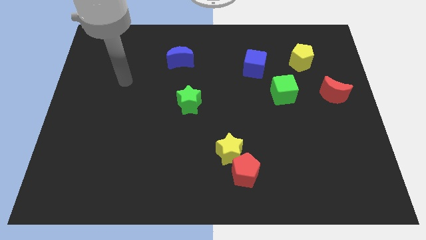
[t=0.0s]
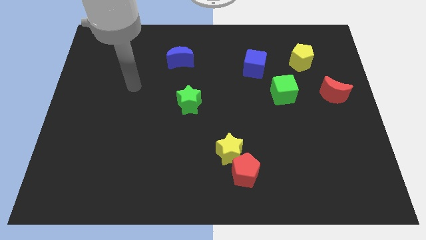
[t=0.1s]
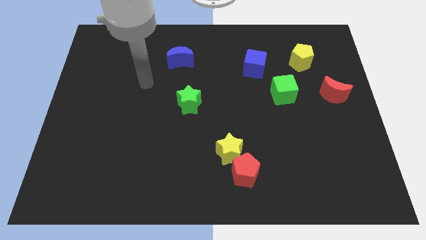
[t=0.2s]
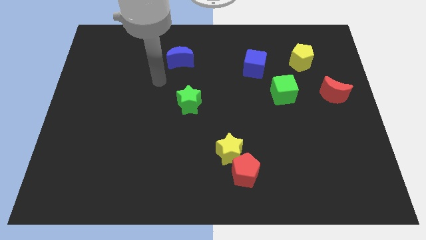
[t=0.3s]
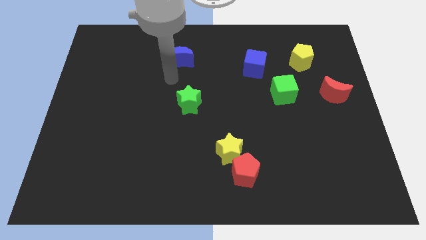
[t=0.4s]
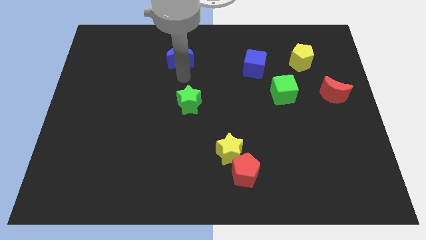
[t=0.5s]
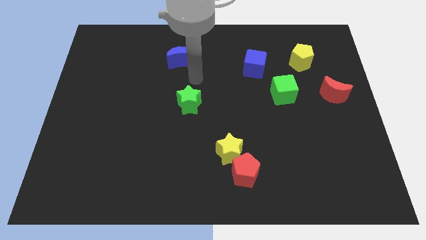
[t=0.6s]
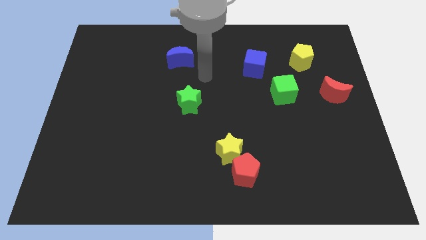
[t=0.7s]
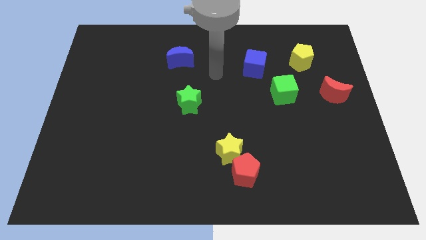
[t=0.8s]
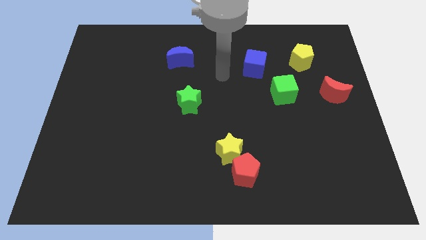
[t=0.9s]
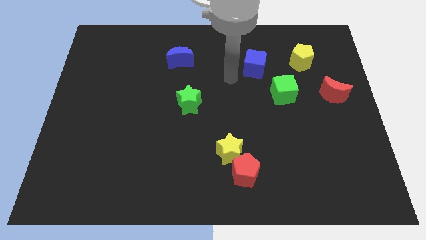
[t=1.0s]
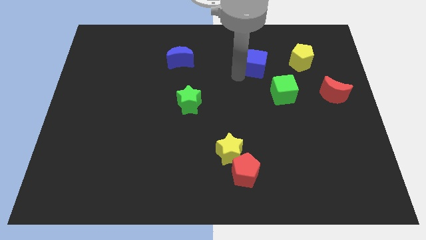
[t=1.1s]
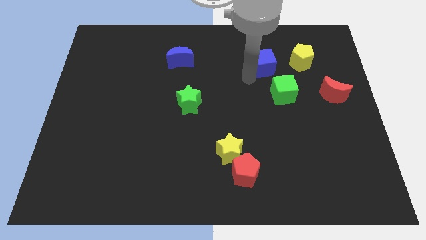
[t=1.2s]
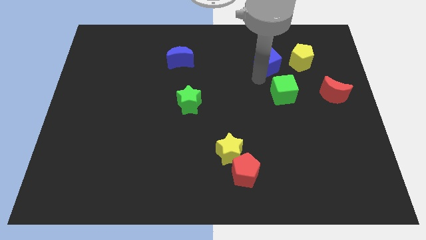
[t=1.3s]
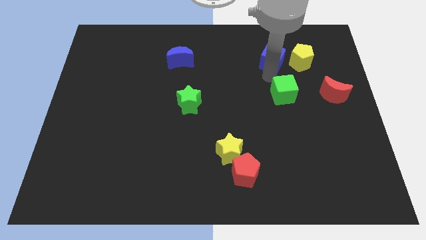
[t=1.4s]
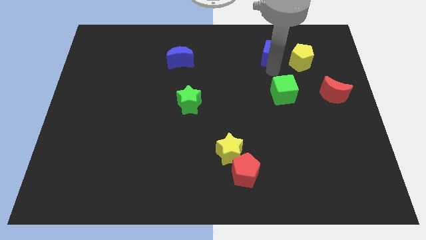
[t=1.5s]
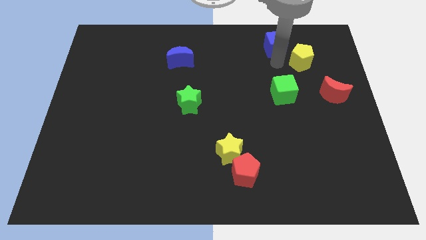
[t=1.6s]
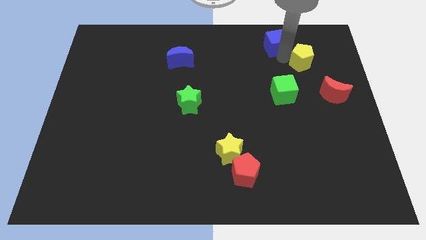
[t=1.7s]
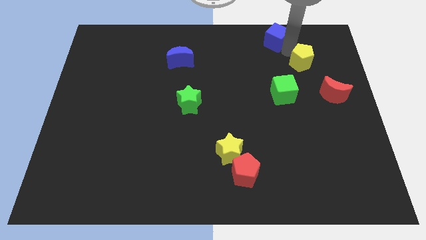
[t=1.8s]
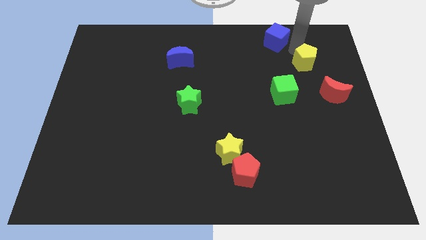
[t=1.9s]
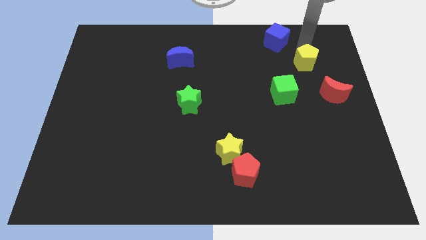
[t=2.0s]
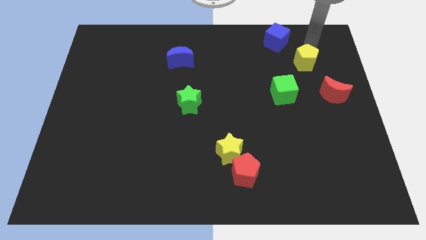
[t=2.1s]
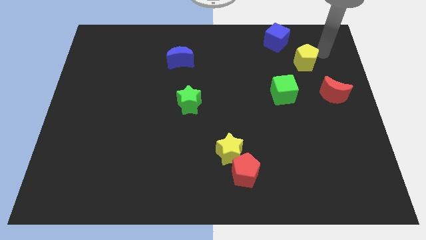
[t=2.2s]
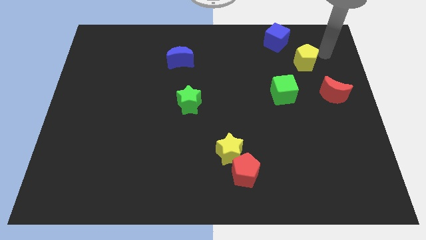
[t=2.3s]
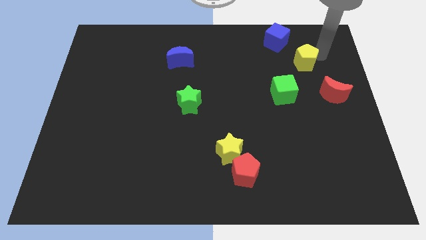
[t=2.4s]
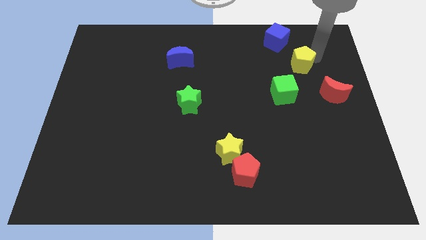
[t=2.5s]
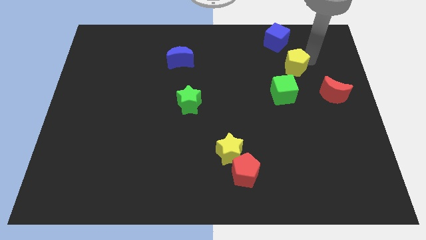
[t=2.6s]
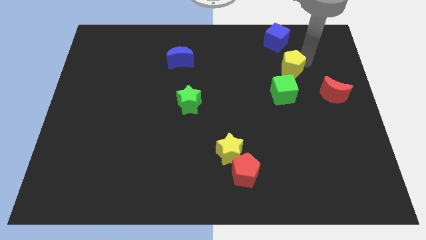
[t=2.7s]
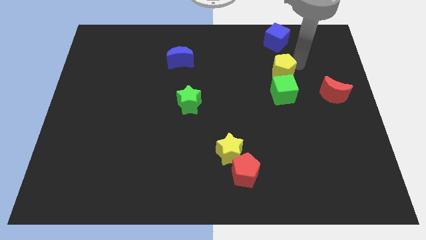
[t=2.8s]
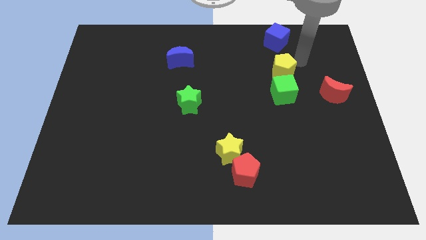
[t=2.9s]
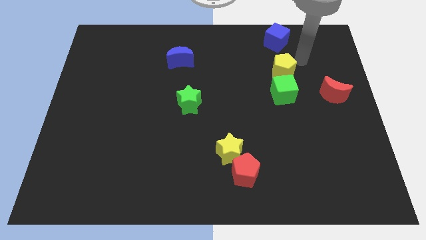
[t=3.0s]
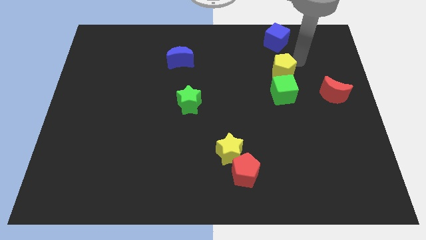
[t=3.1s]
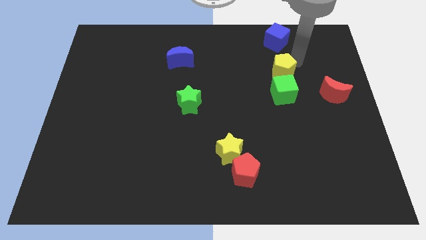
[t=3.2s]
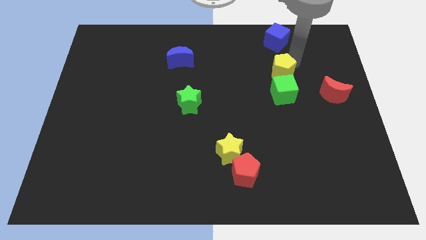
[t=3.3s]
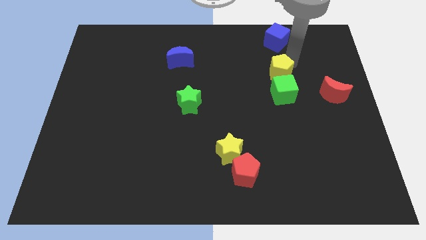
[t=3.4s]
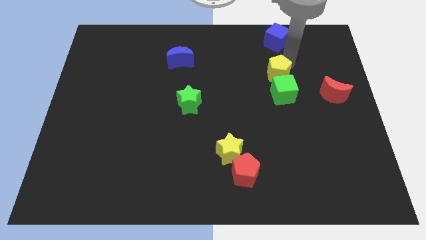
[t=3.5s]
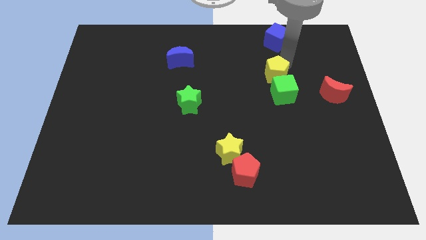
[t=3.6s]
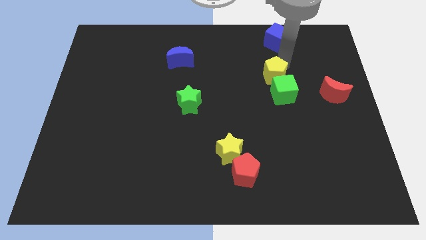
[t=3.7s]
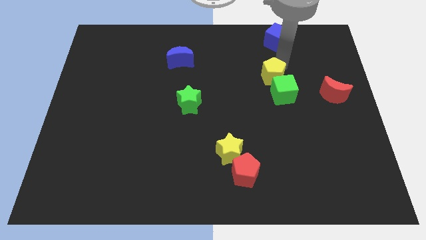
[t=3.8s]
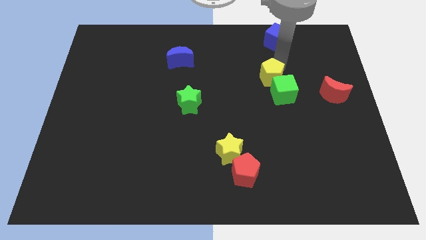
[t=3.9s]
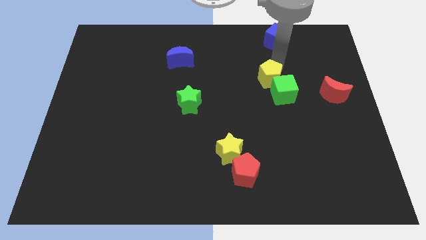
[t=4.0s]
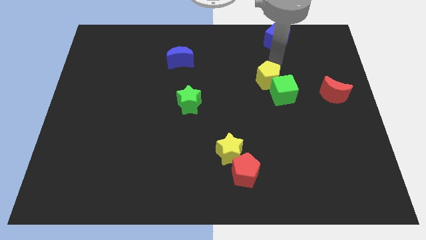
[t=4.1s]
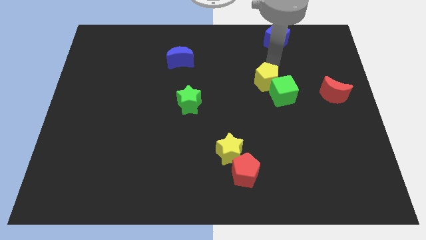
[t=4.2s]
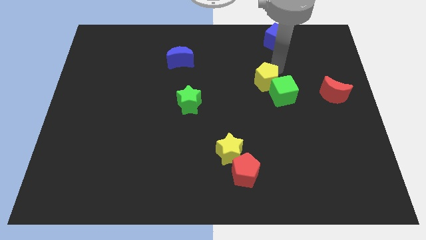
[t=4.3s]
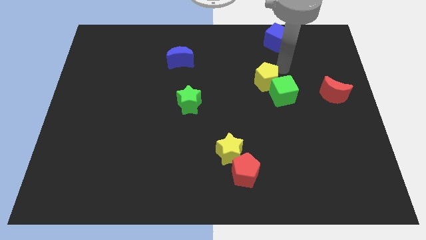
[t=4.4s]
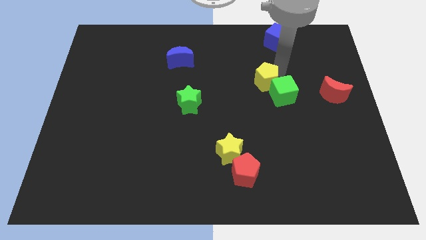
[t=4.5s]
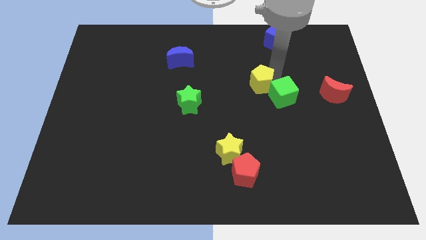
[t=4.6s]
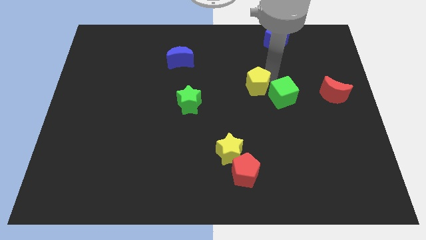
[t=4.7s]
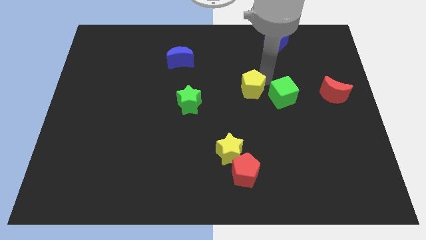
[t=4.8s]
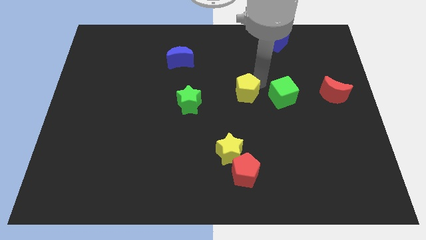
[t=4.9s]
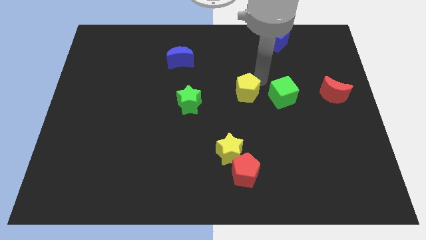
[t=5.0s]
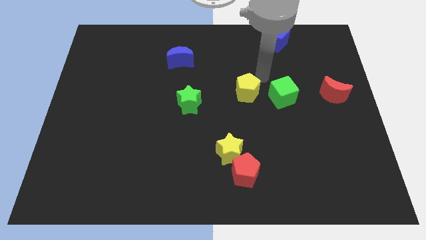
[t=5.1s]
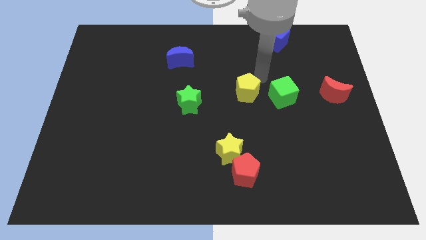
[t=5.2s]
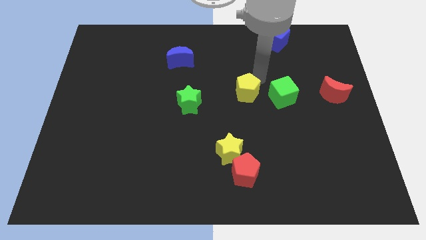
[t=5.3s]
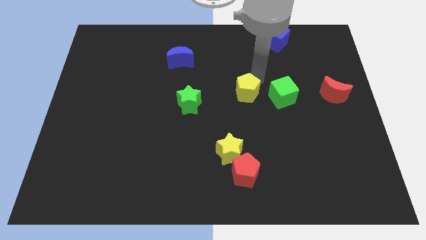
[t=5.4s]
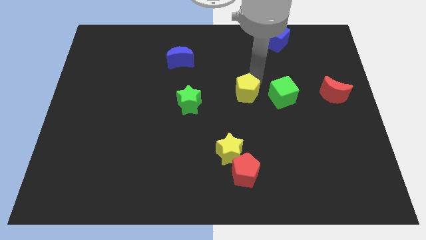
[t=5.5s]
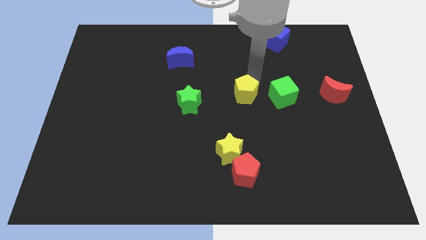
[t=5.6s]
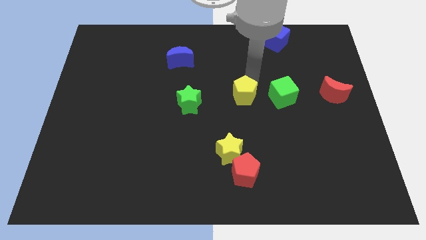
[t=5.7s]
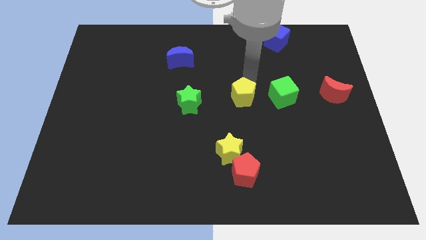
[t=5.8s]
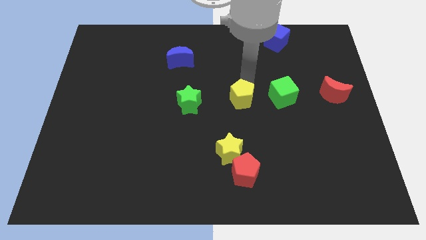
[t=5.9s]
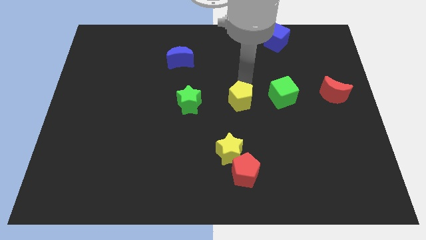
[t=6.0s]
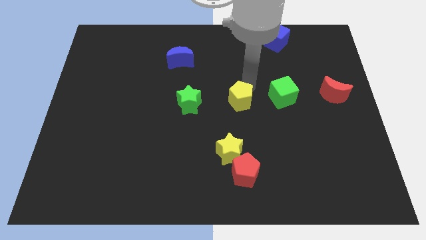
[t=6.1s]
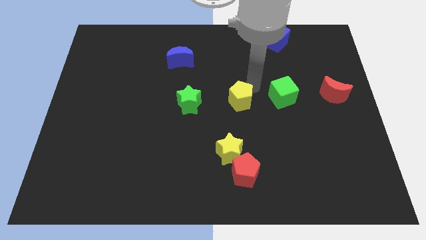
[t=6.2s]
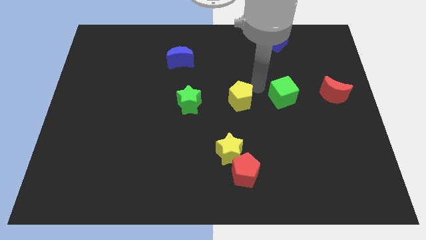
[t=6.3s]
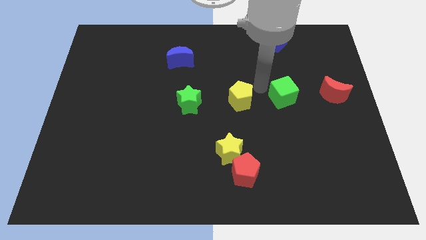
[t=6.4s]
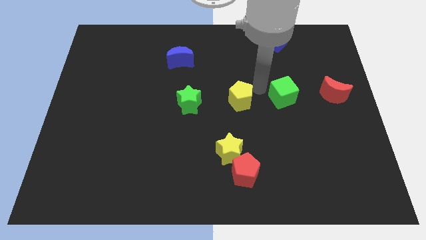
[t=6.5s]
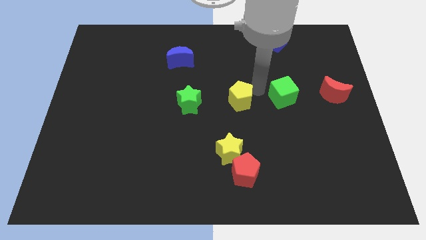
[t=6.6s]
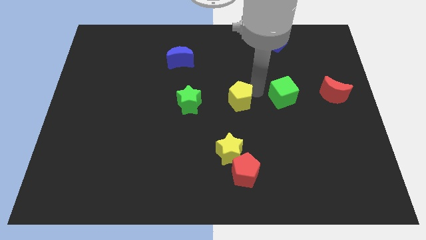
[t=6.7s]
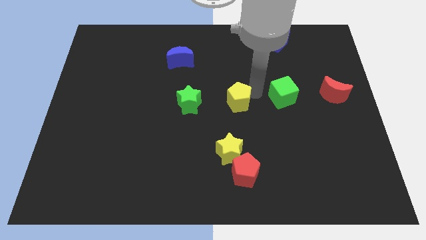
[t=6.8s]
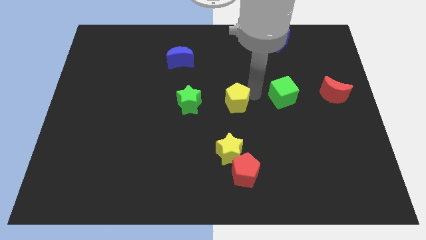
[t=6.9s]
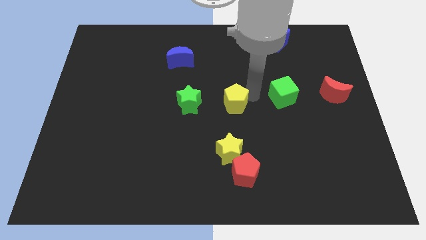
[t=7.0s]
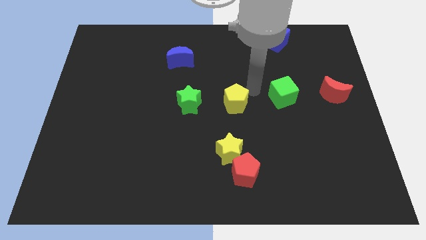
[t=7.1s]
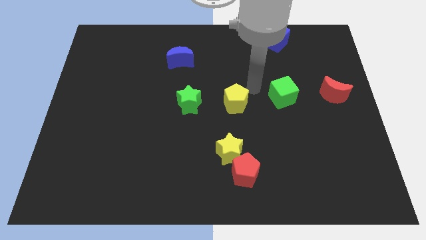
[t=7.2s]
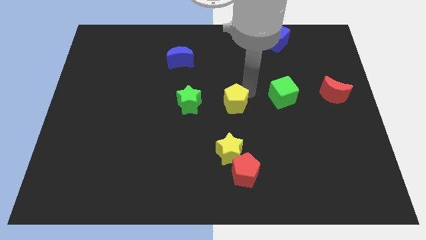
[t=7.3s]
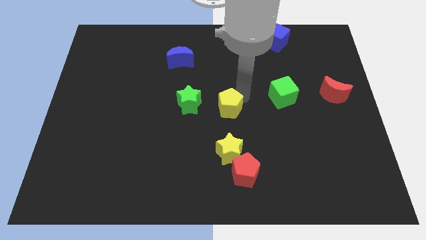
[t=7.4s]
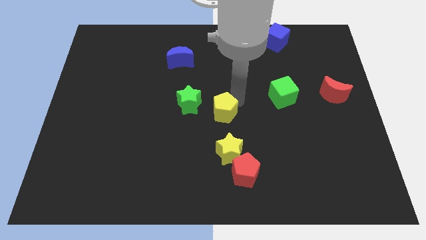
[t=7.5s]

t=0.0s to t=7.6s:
push the yellow pentagon diagonally down and to the right of the green star

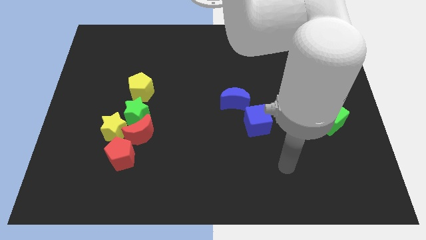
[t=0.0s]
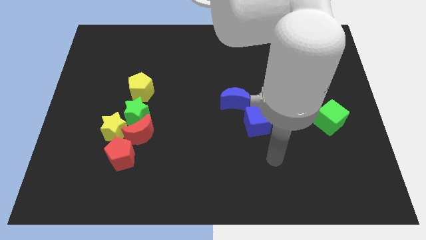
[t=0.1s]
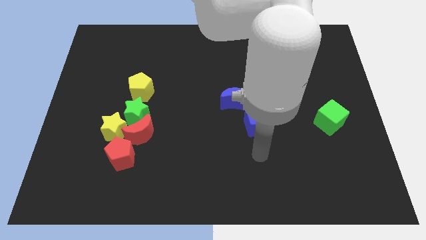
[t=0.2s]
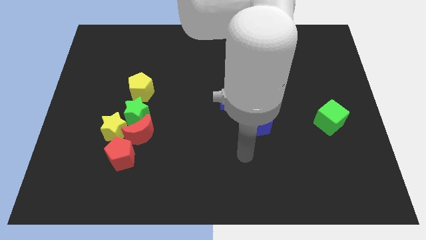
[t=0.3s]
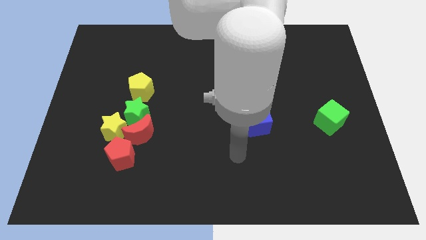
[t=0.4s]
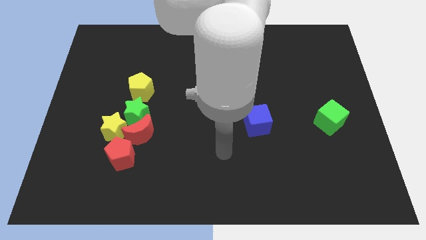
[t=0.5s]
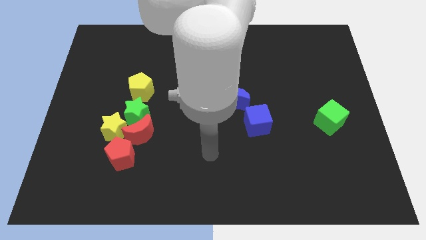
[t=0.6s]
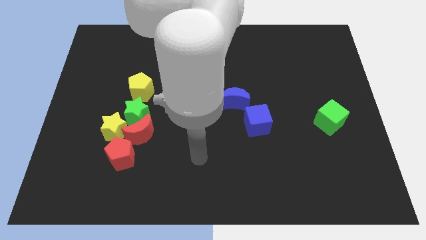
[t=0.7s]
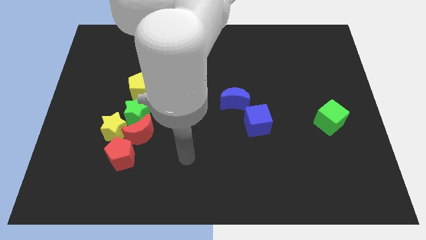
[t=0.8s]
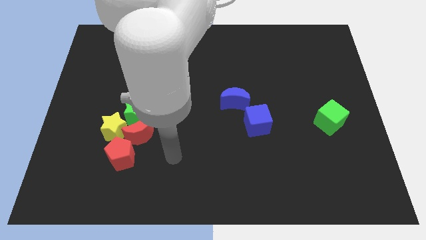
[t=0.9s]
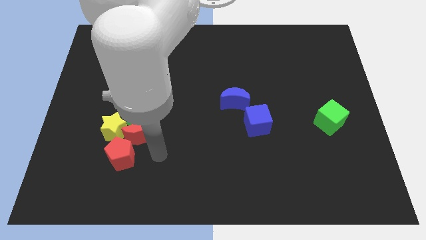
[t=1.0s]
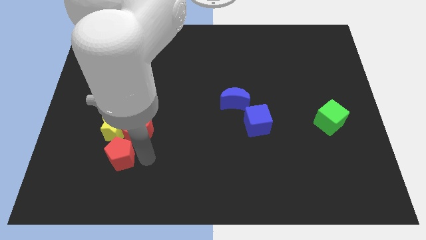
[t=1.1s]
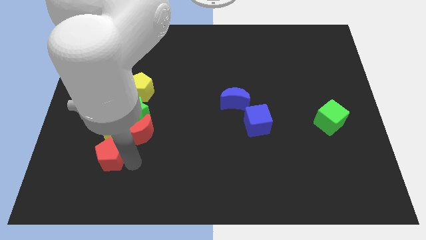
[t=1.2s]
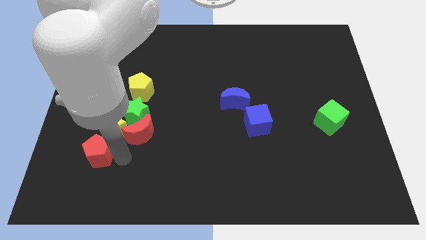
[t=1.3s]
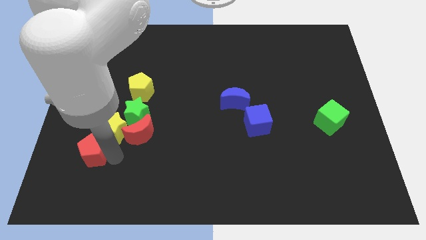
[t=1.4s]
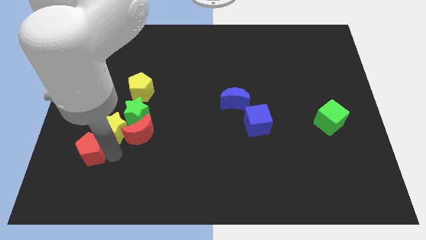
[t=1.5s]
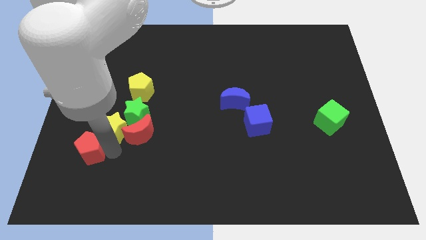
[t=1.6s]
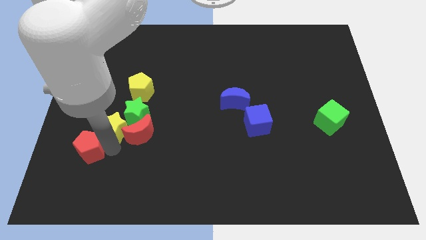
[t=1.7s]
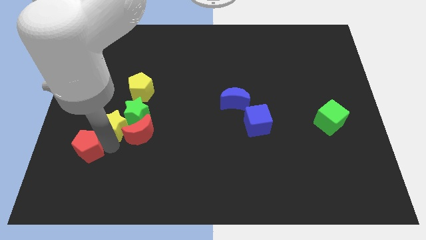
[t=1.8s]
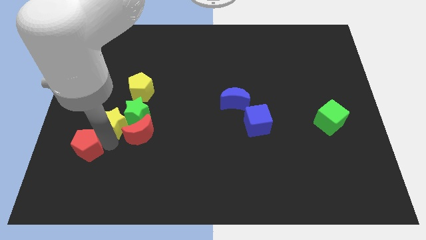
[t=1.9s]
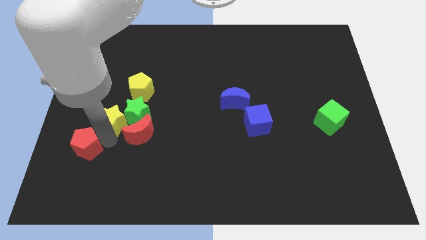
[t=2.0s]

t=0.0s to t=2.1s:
put the yellow star to the bottom left of the yellow pentagon
